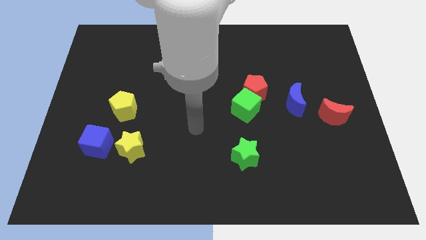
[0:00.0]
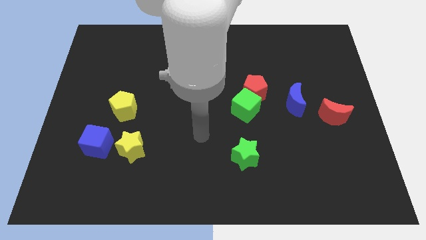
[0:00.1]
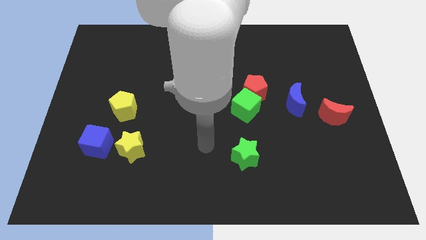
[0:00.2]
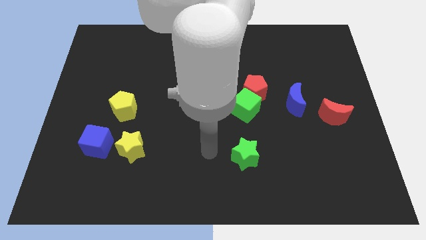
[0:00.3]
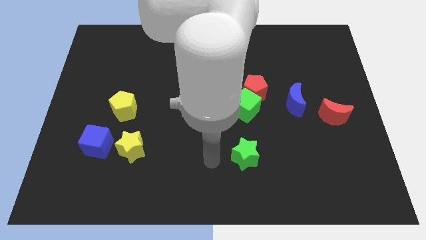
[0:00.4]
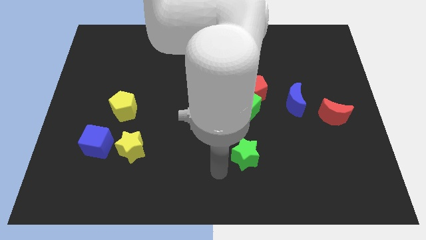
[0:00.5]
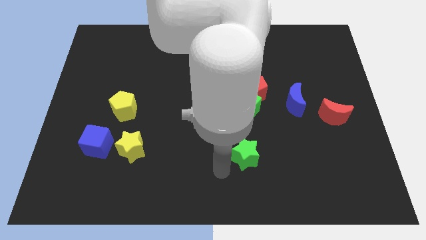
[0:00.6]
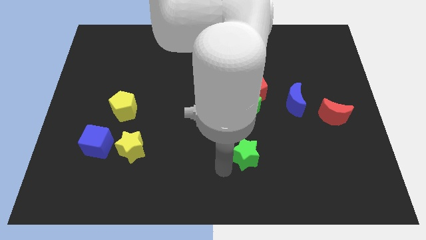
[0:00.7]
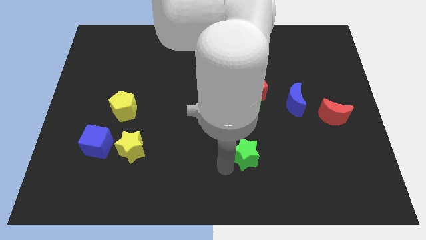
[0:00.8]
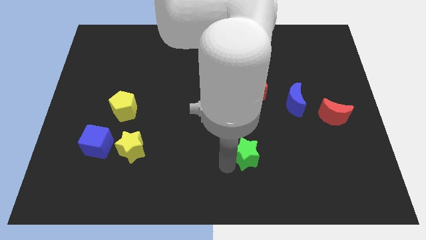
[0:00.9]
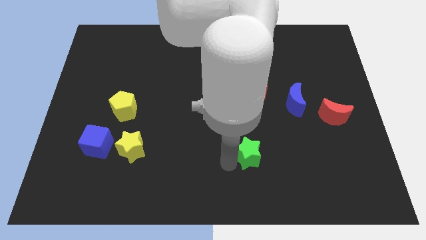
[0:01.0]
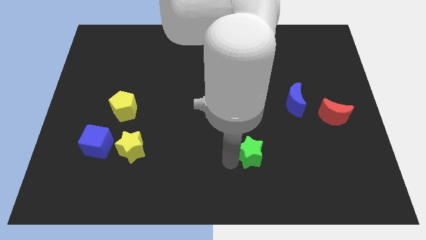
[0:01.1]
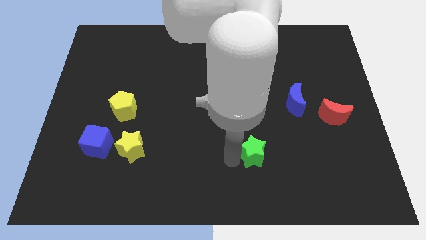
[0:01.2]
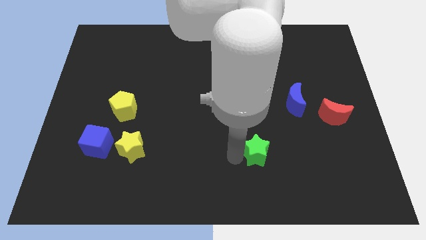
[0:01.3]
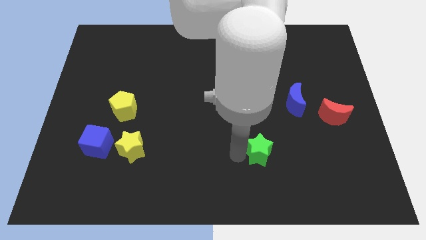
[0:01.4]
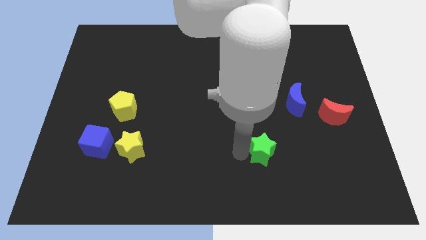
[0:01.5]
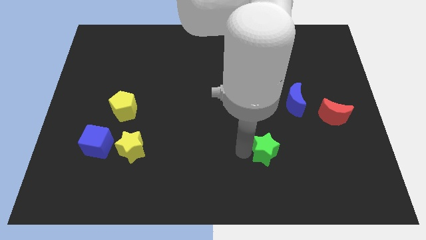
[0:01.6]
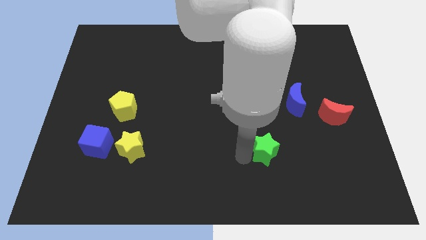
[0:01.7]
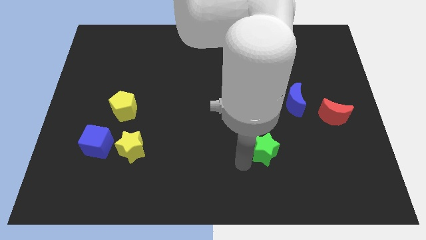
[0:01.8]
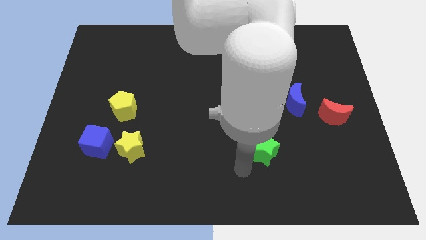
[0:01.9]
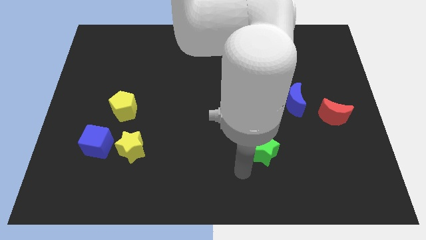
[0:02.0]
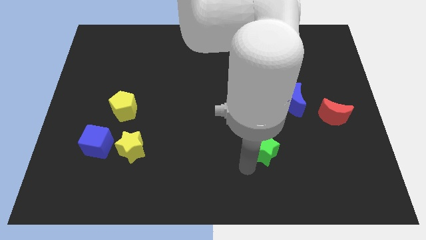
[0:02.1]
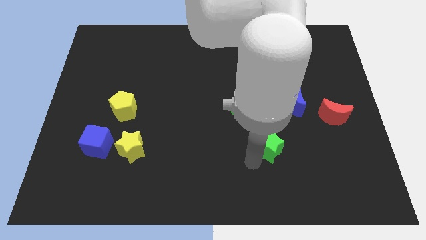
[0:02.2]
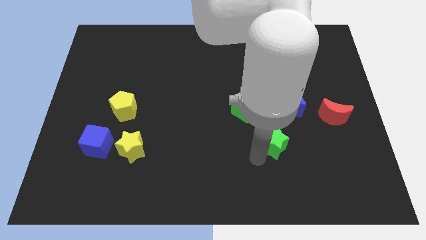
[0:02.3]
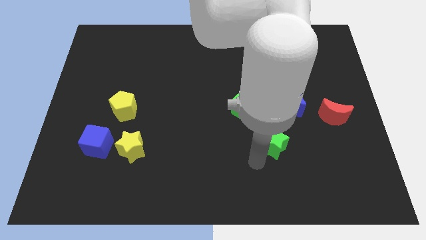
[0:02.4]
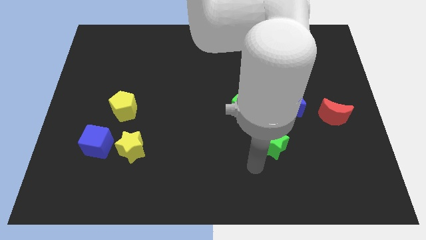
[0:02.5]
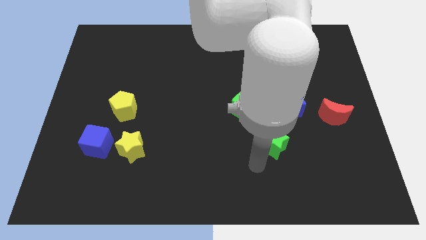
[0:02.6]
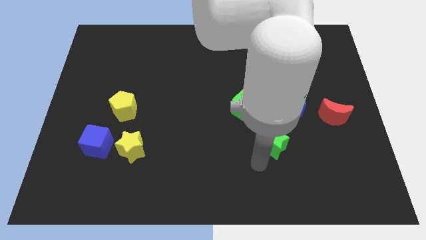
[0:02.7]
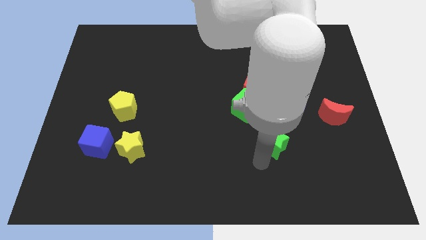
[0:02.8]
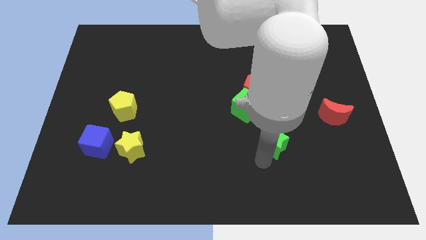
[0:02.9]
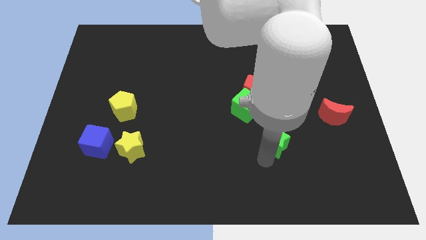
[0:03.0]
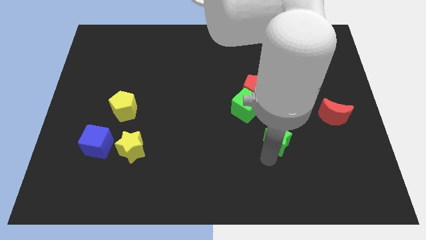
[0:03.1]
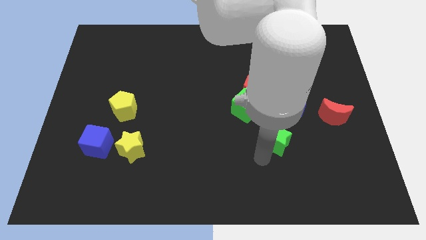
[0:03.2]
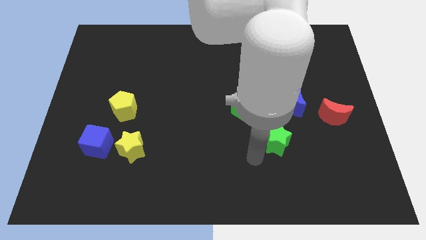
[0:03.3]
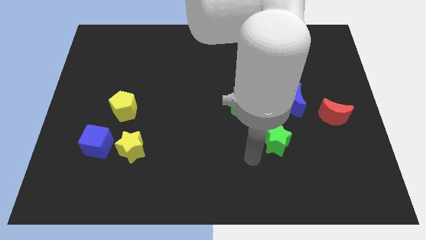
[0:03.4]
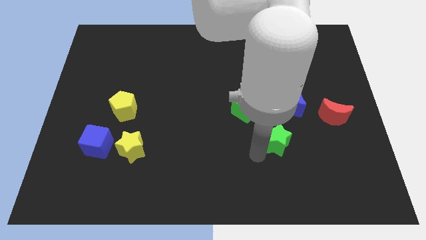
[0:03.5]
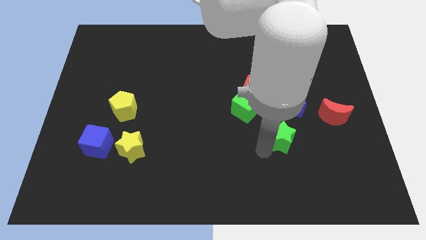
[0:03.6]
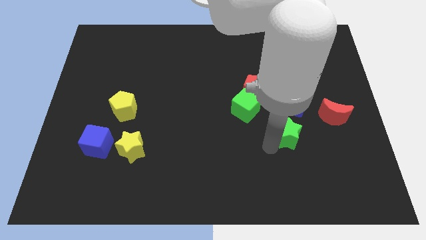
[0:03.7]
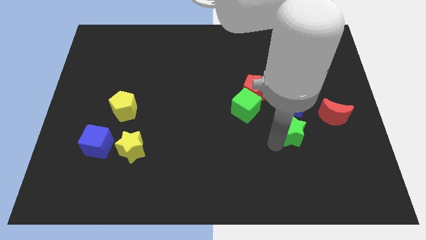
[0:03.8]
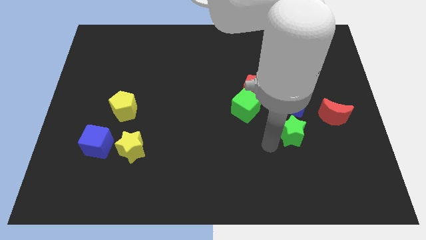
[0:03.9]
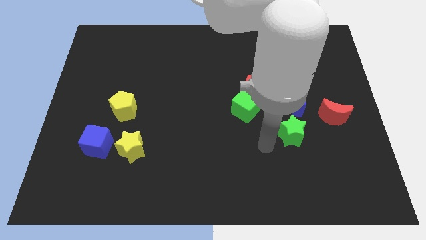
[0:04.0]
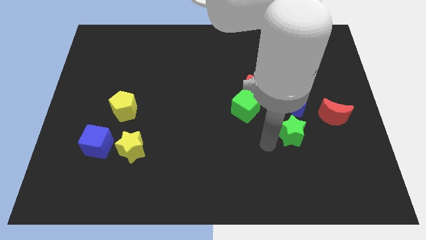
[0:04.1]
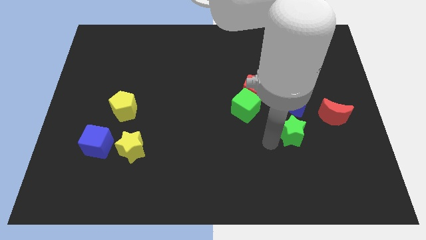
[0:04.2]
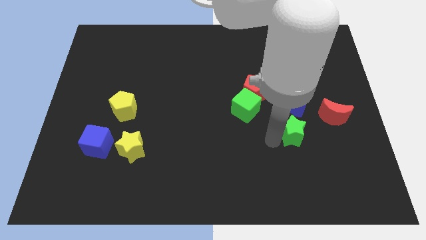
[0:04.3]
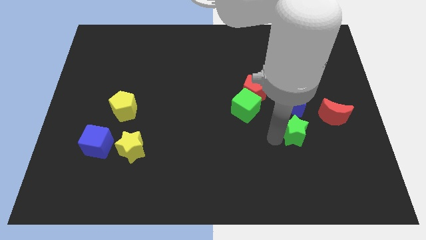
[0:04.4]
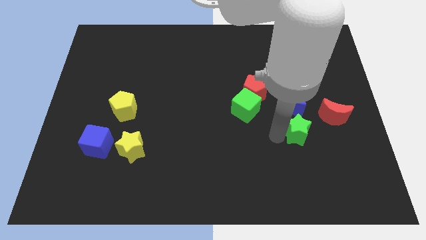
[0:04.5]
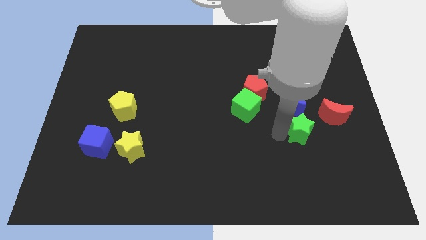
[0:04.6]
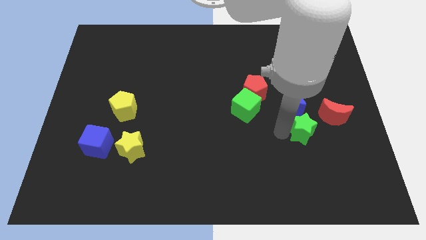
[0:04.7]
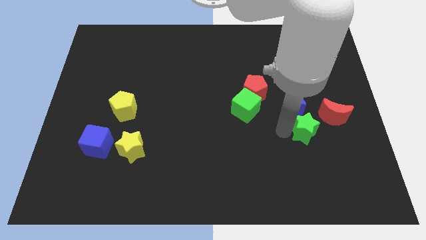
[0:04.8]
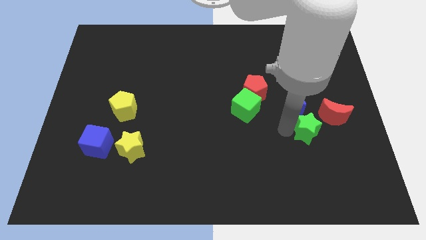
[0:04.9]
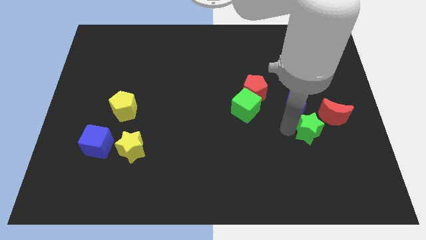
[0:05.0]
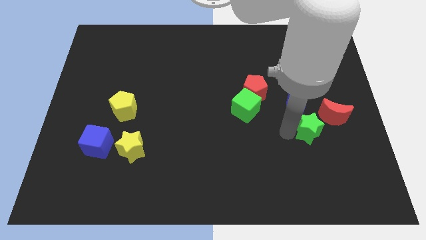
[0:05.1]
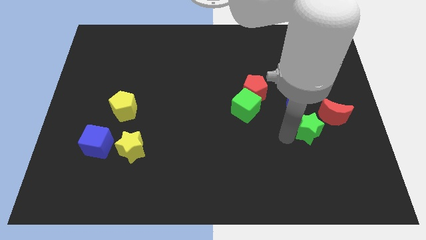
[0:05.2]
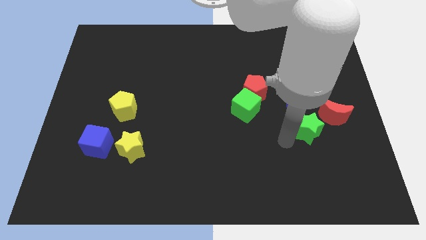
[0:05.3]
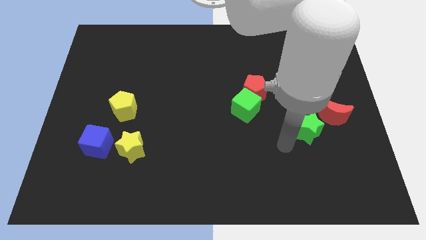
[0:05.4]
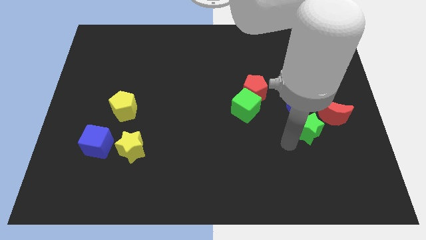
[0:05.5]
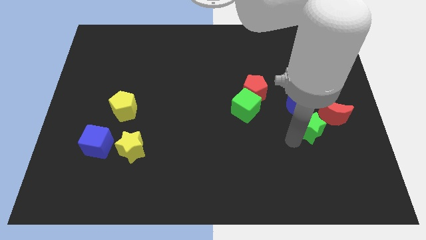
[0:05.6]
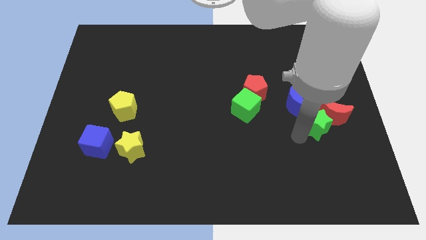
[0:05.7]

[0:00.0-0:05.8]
push the green star close to the red moon

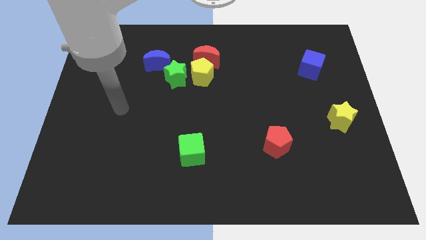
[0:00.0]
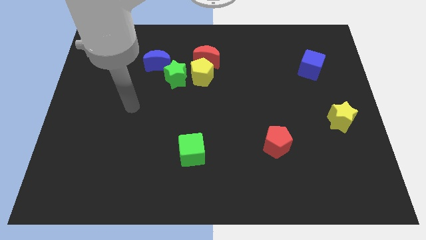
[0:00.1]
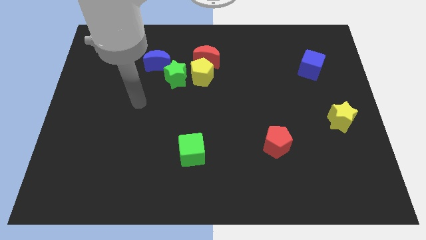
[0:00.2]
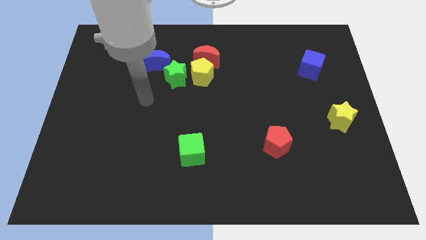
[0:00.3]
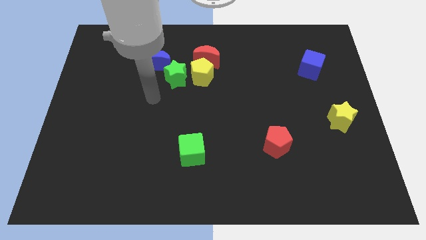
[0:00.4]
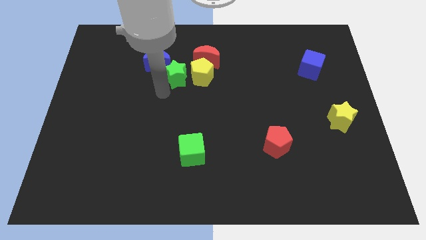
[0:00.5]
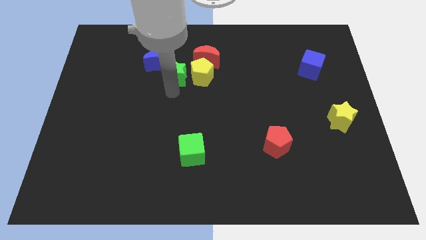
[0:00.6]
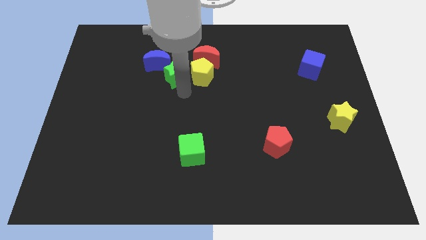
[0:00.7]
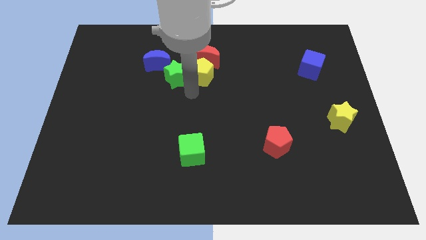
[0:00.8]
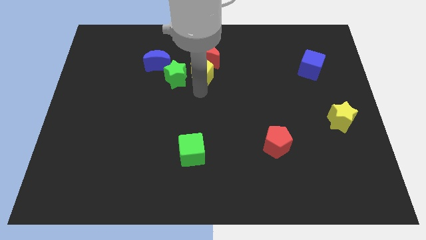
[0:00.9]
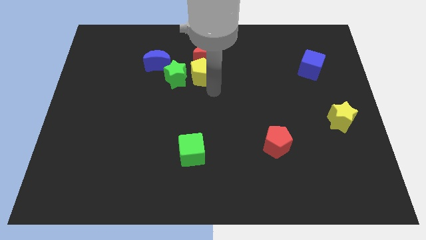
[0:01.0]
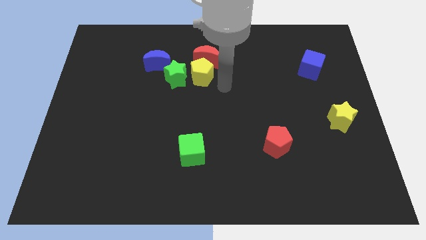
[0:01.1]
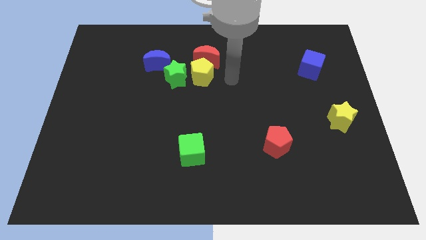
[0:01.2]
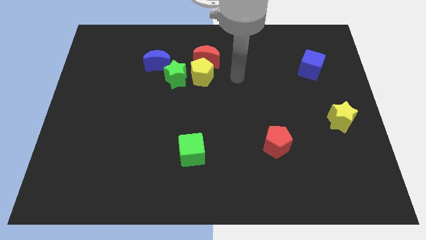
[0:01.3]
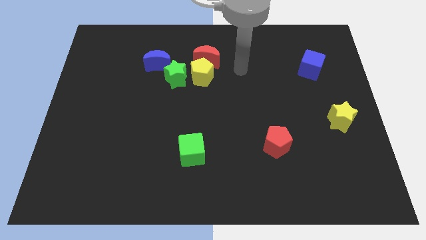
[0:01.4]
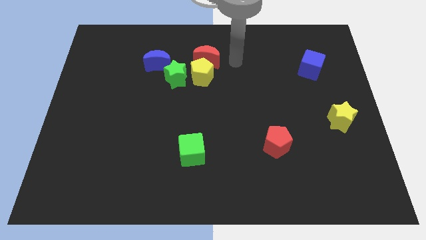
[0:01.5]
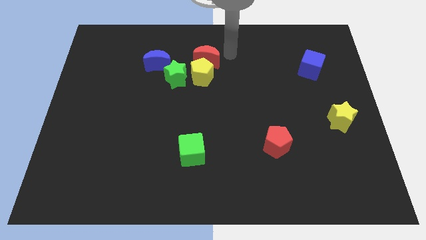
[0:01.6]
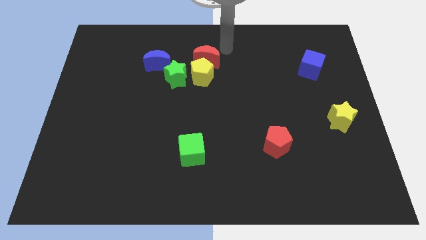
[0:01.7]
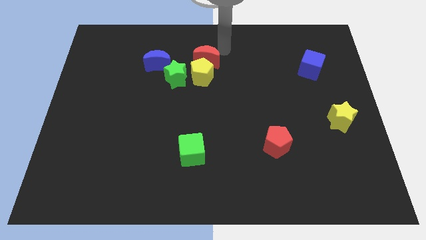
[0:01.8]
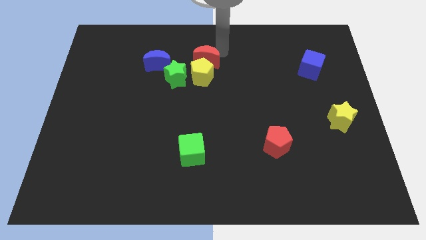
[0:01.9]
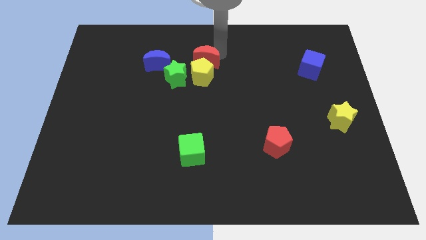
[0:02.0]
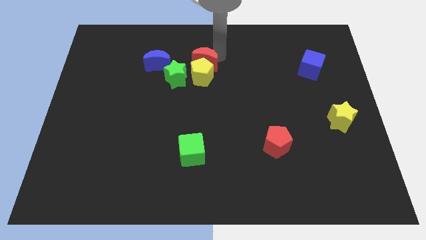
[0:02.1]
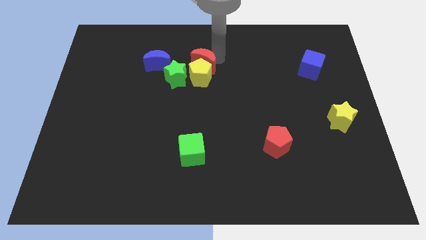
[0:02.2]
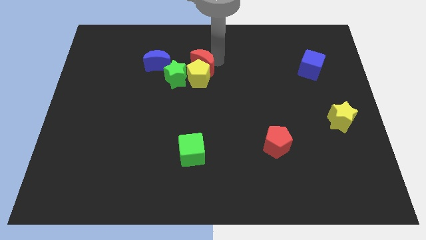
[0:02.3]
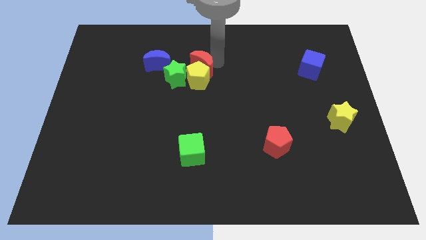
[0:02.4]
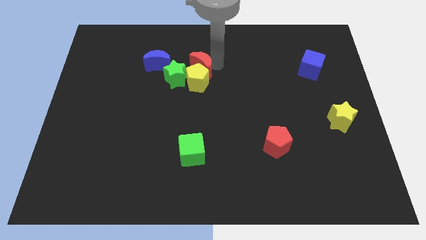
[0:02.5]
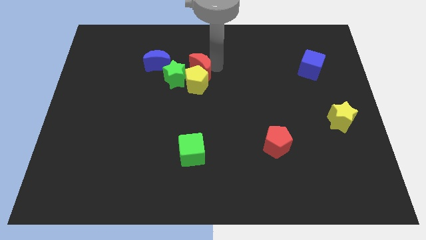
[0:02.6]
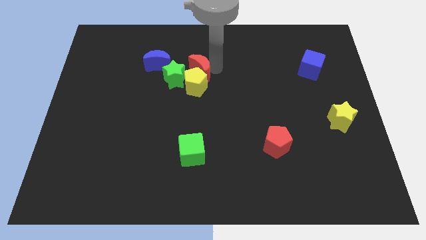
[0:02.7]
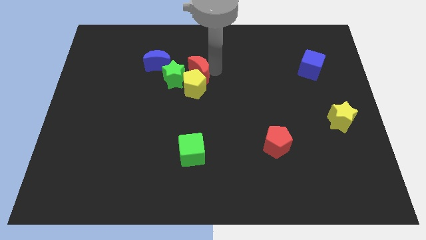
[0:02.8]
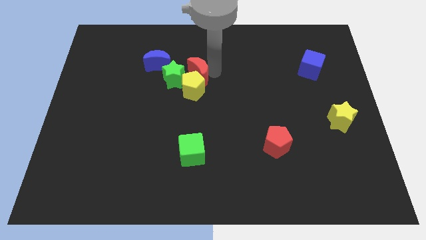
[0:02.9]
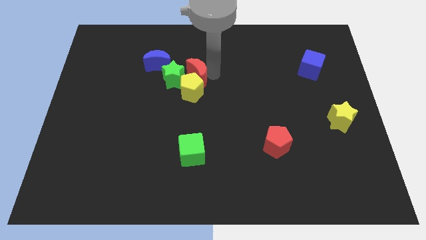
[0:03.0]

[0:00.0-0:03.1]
slide the red moon towards the green star
